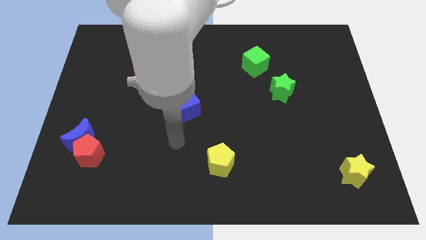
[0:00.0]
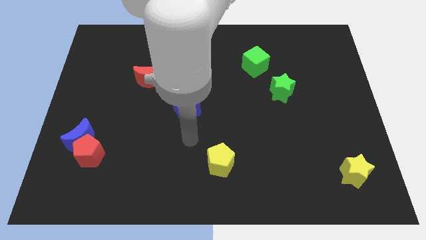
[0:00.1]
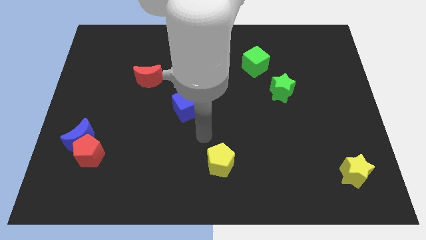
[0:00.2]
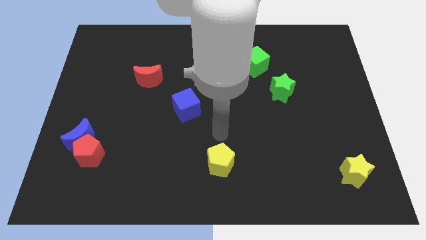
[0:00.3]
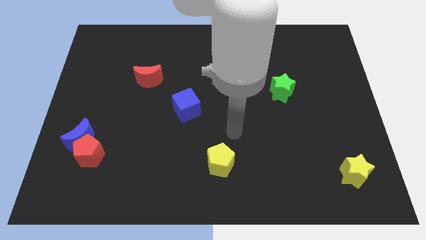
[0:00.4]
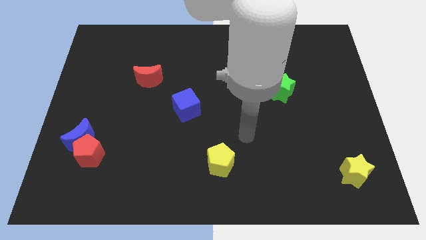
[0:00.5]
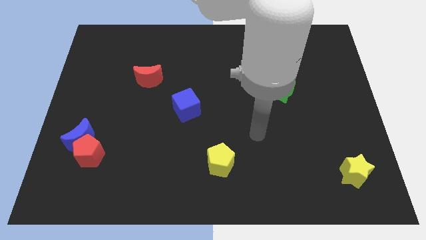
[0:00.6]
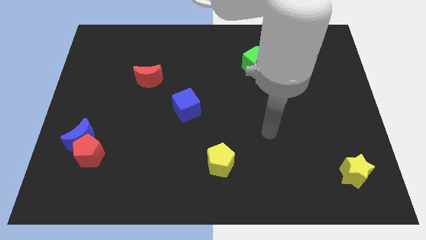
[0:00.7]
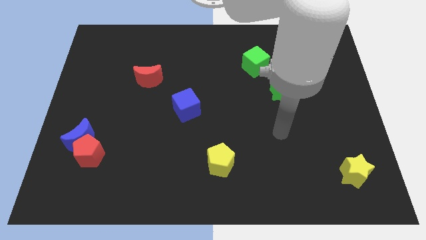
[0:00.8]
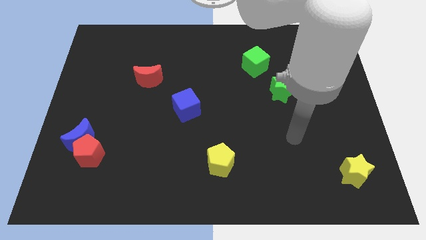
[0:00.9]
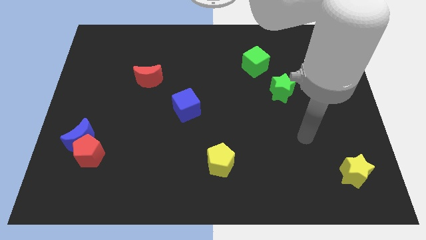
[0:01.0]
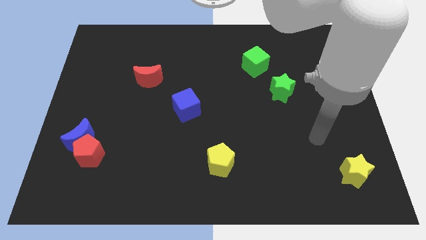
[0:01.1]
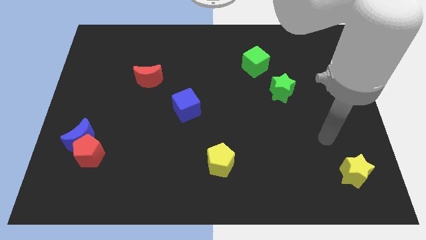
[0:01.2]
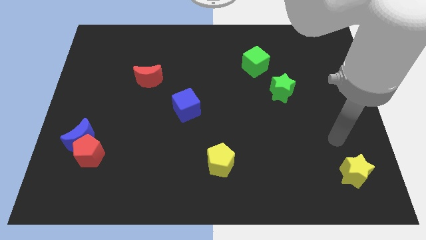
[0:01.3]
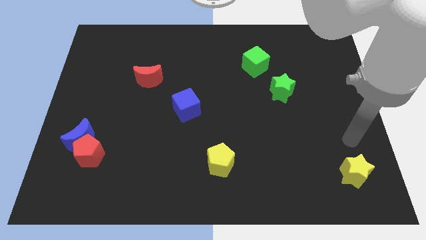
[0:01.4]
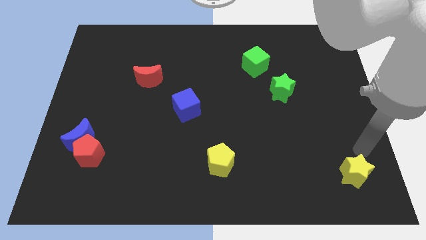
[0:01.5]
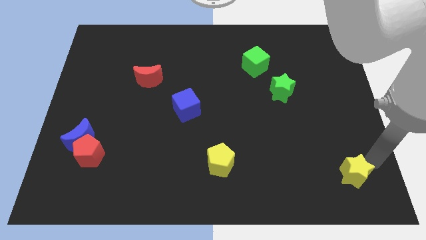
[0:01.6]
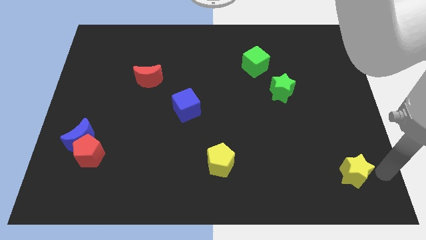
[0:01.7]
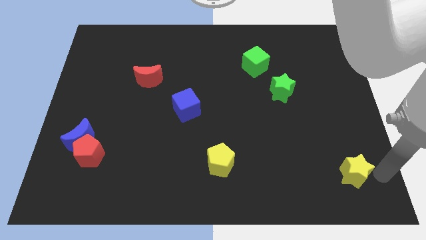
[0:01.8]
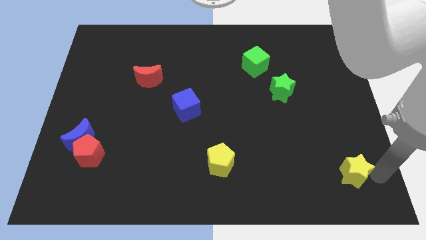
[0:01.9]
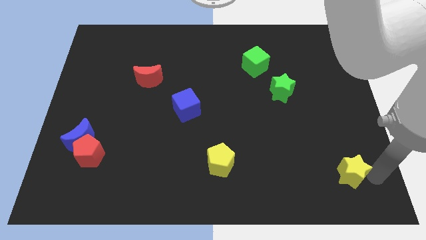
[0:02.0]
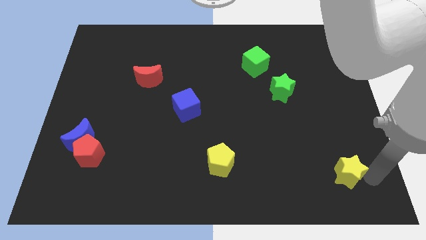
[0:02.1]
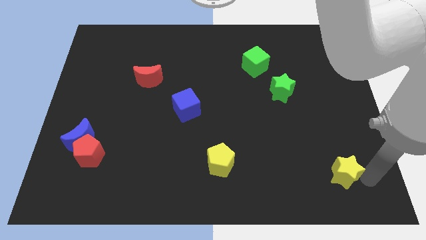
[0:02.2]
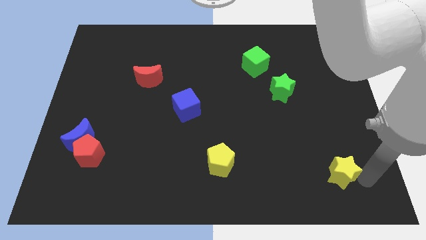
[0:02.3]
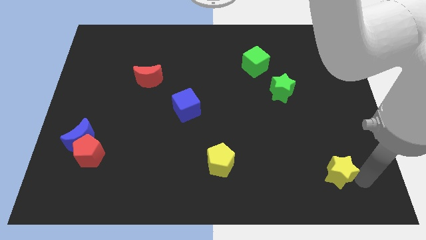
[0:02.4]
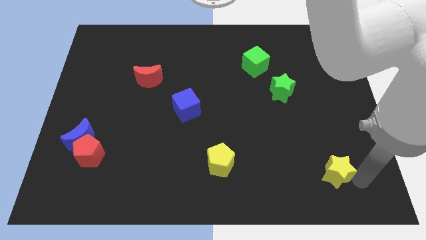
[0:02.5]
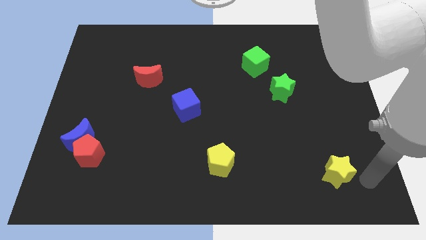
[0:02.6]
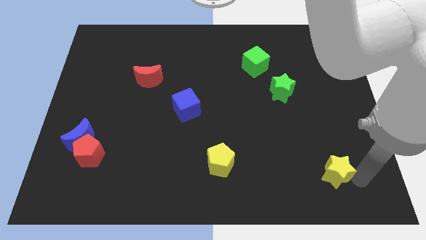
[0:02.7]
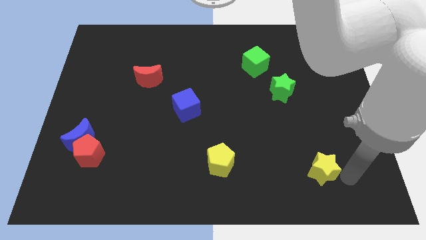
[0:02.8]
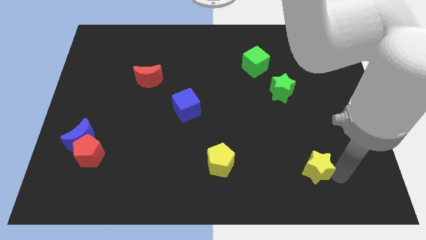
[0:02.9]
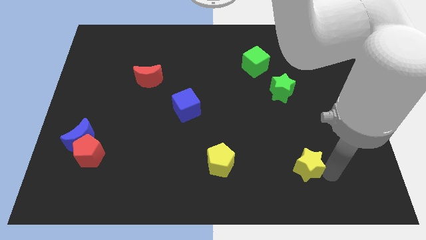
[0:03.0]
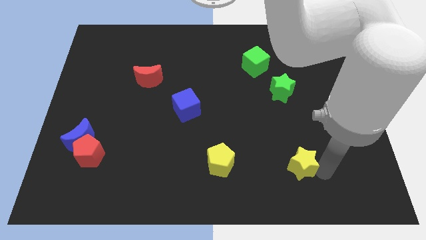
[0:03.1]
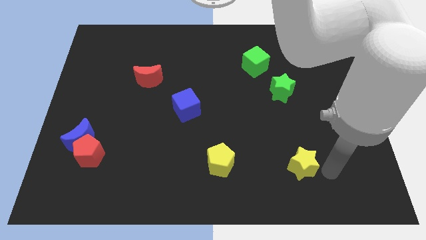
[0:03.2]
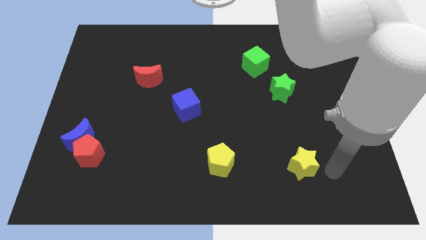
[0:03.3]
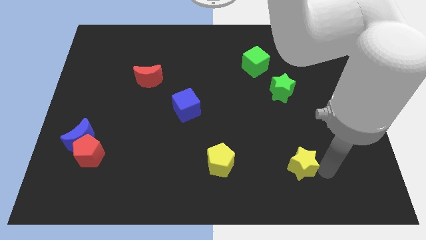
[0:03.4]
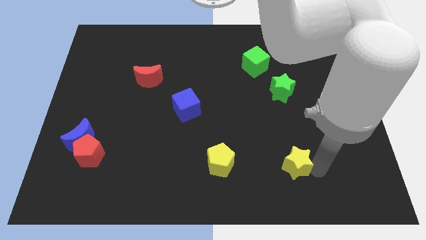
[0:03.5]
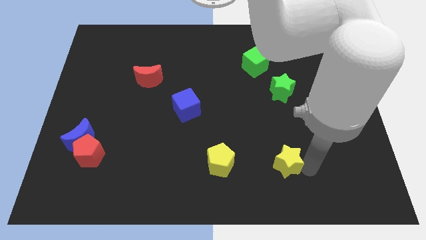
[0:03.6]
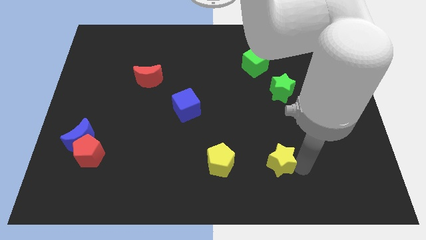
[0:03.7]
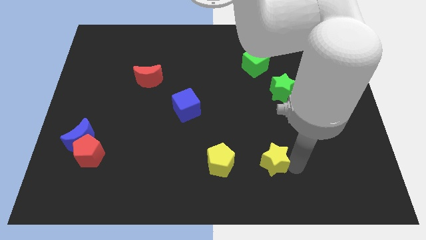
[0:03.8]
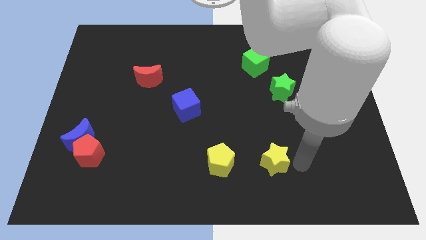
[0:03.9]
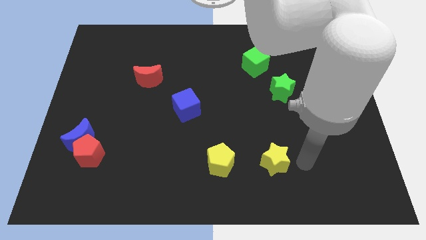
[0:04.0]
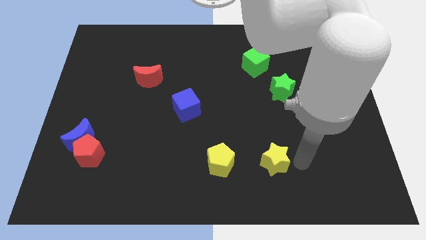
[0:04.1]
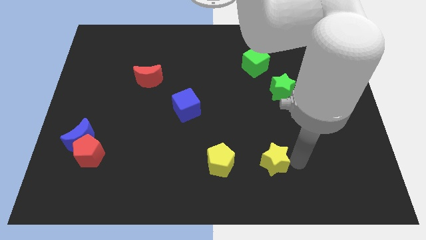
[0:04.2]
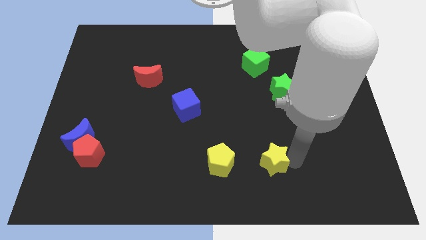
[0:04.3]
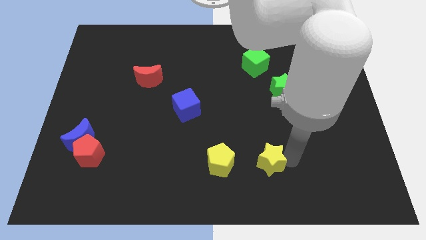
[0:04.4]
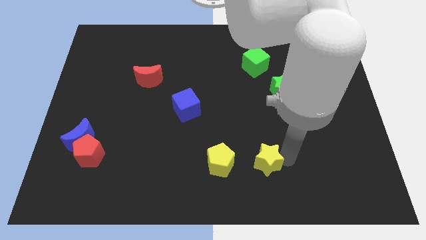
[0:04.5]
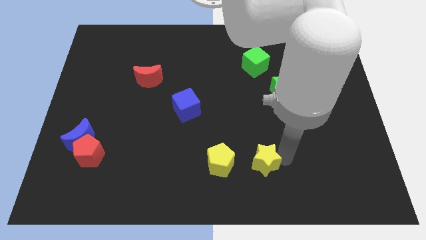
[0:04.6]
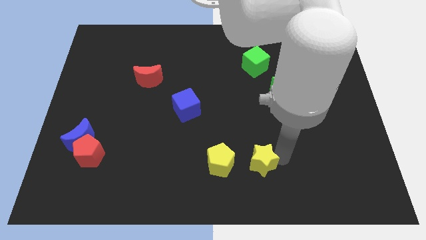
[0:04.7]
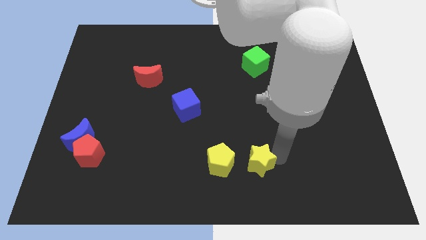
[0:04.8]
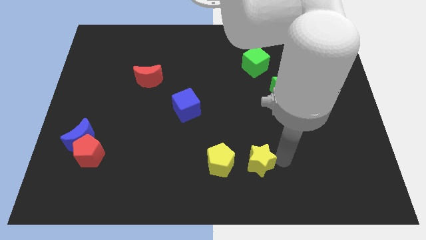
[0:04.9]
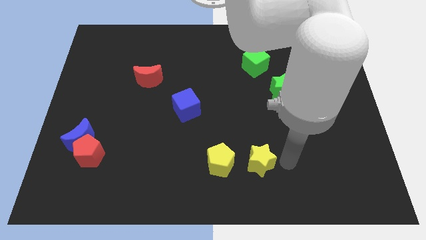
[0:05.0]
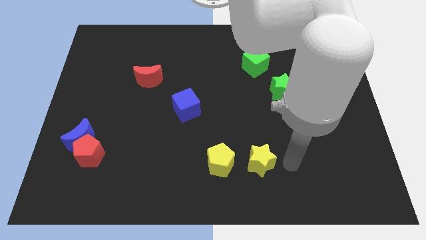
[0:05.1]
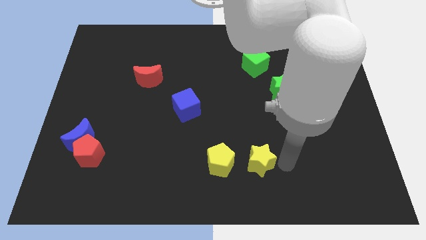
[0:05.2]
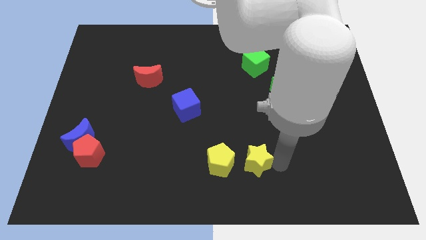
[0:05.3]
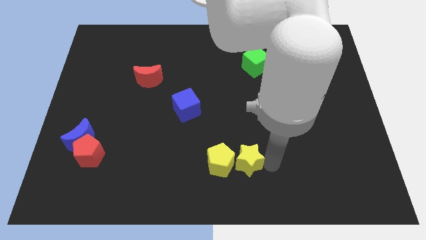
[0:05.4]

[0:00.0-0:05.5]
put the yellow star close to the yellow pentagon

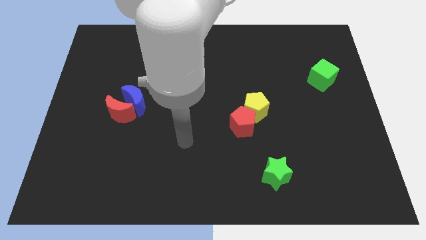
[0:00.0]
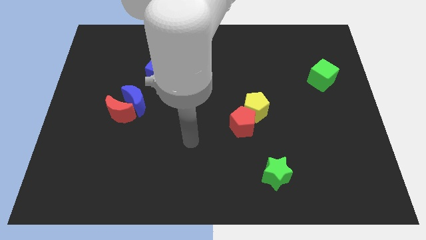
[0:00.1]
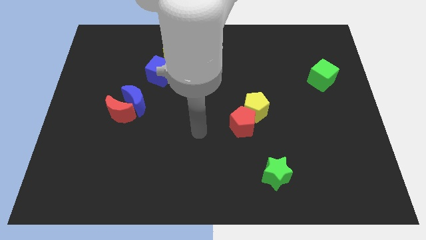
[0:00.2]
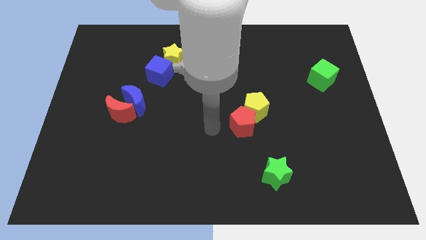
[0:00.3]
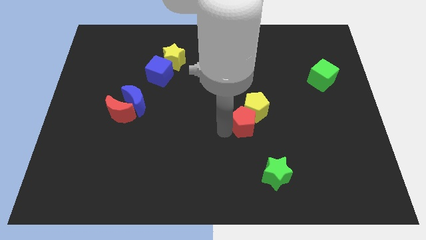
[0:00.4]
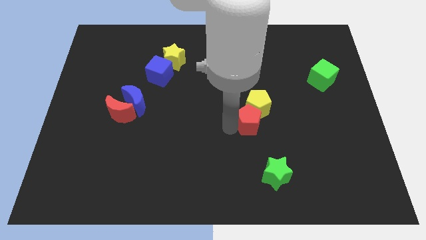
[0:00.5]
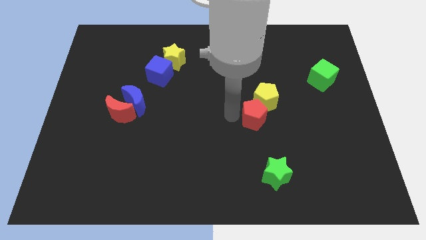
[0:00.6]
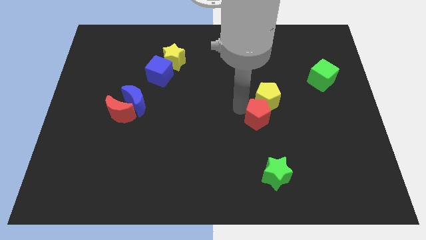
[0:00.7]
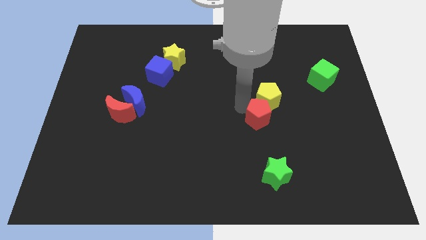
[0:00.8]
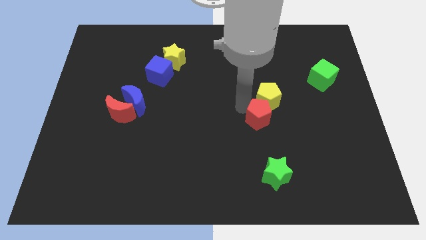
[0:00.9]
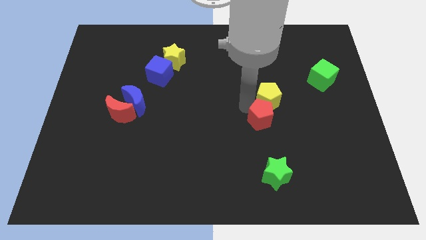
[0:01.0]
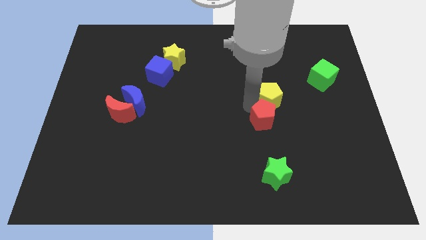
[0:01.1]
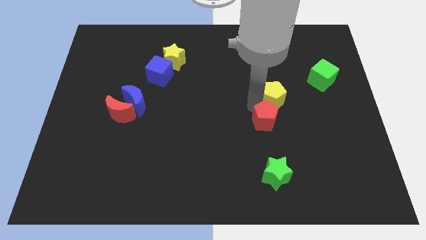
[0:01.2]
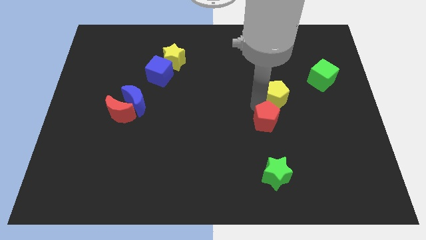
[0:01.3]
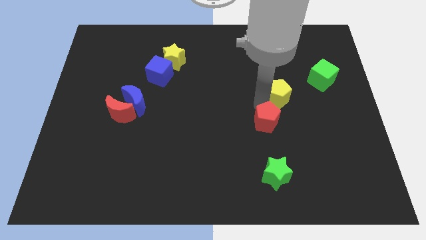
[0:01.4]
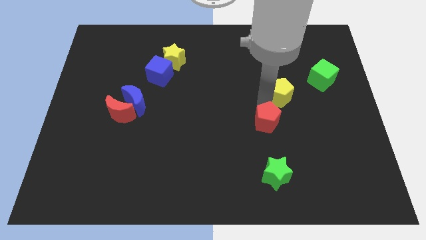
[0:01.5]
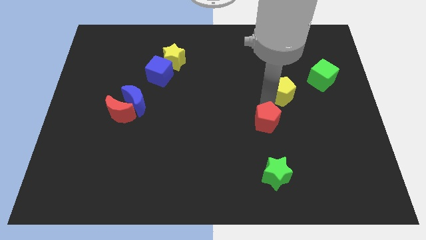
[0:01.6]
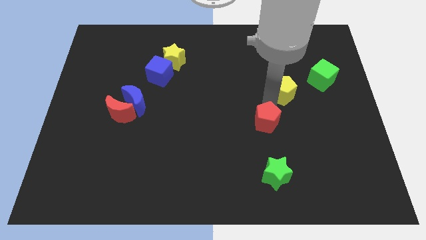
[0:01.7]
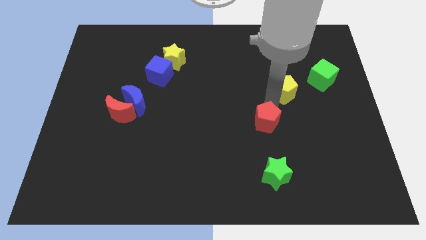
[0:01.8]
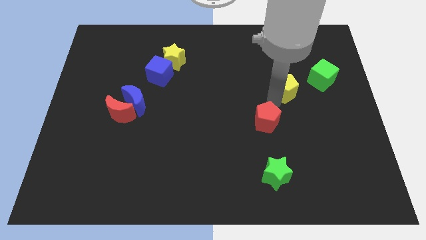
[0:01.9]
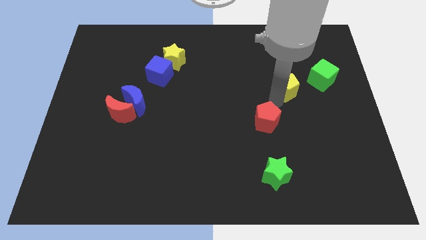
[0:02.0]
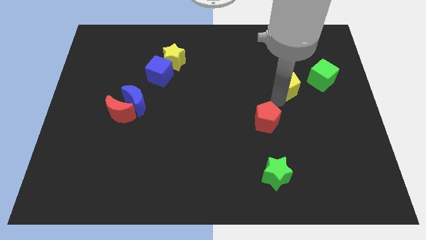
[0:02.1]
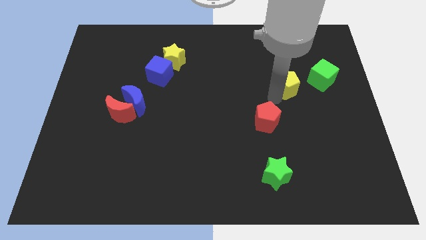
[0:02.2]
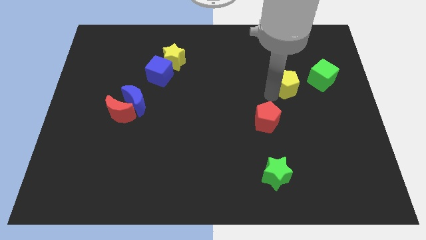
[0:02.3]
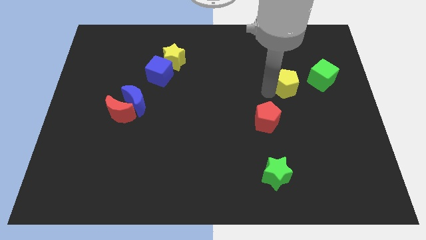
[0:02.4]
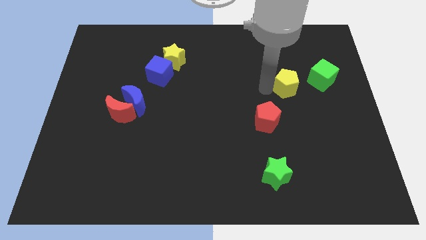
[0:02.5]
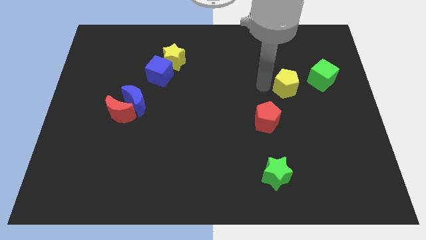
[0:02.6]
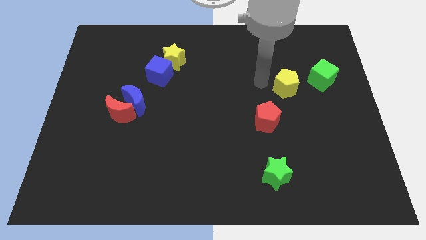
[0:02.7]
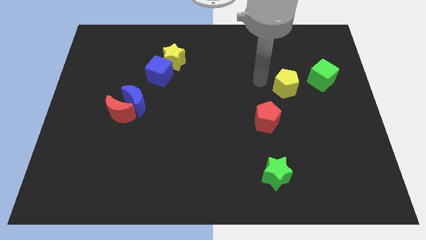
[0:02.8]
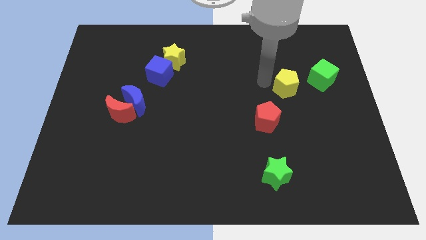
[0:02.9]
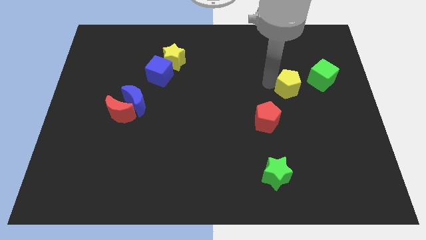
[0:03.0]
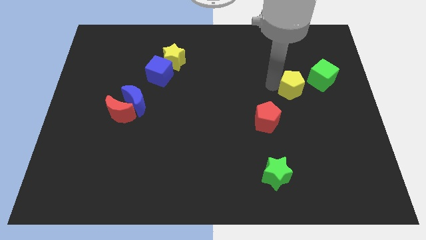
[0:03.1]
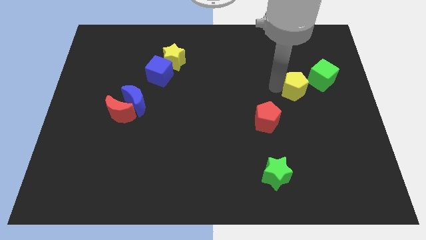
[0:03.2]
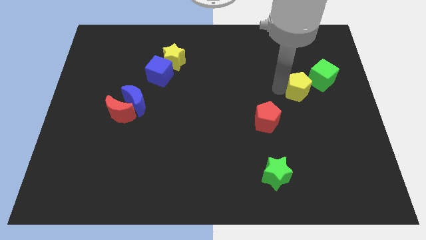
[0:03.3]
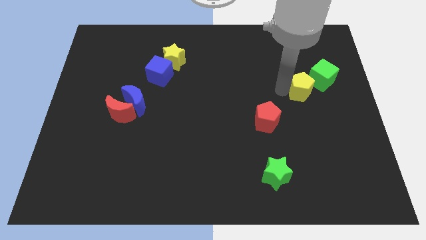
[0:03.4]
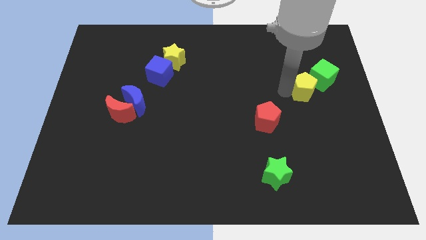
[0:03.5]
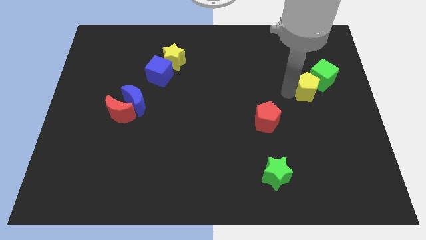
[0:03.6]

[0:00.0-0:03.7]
slide the yellow pentagon towards the green cube
